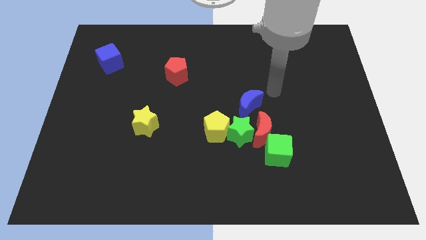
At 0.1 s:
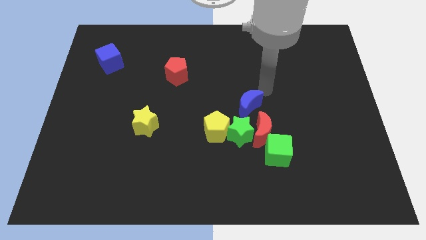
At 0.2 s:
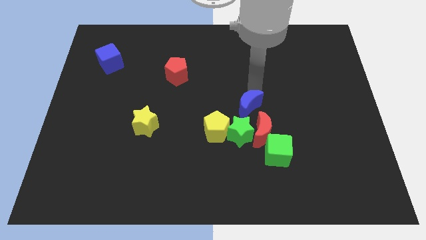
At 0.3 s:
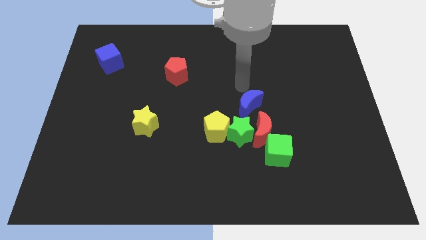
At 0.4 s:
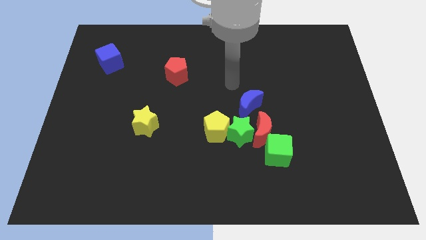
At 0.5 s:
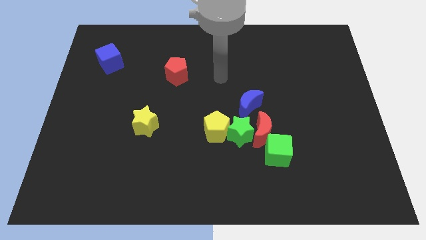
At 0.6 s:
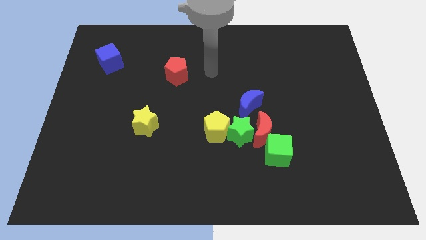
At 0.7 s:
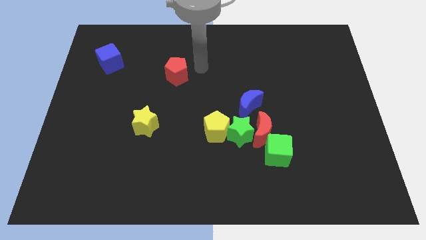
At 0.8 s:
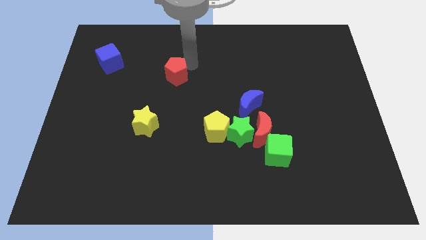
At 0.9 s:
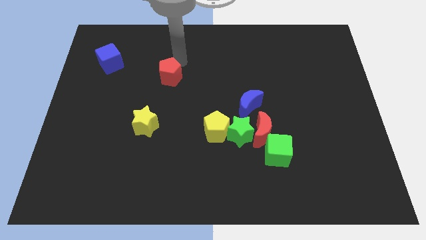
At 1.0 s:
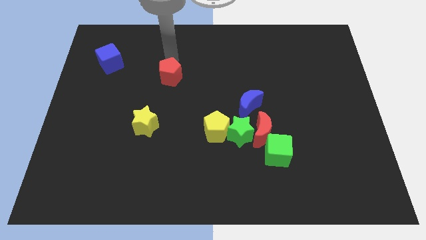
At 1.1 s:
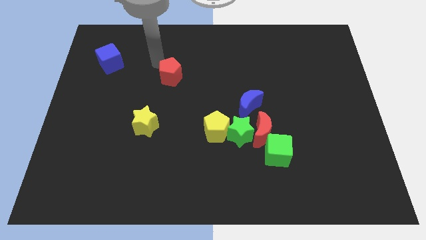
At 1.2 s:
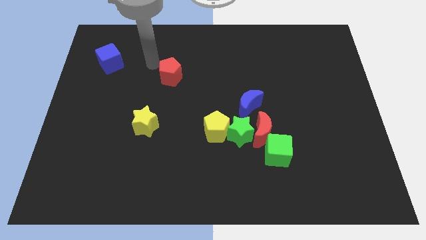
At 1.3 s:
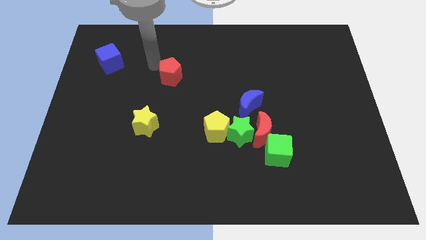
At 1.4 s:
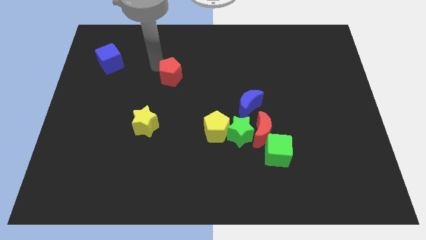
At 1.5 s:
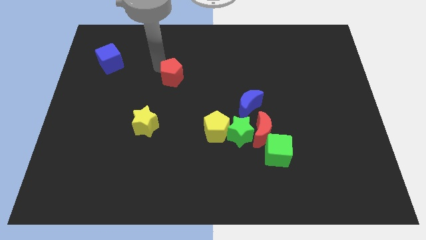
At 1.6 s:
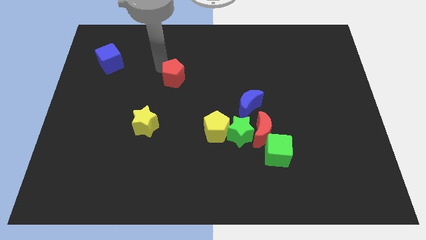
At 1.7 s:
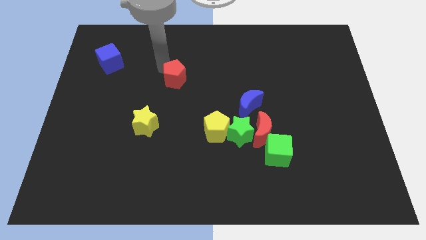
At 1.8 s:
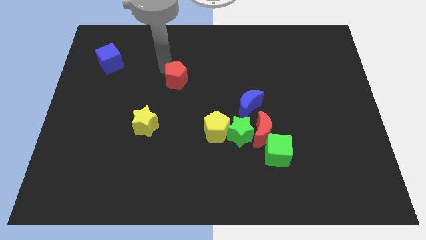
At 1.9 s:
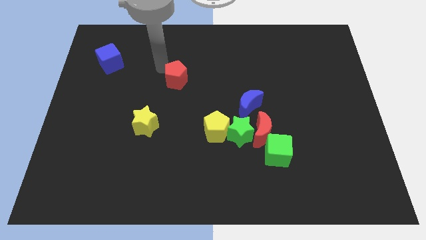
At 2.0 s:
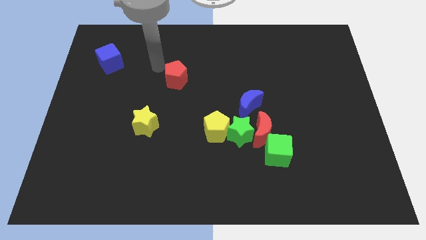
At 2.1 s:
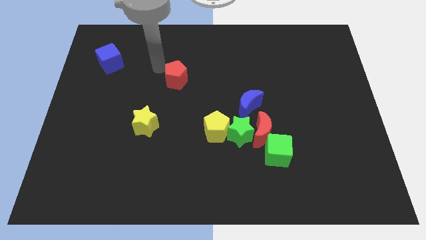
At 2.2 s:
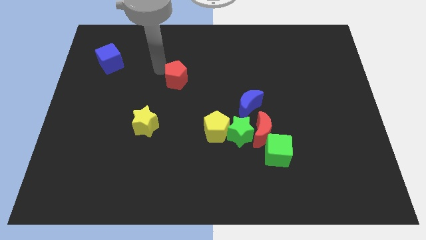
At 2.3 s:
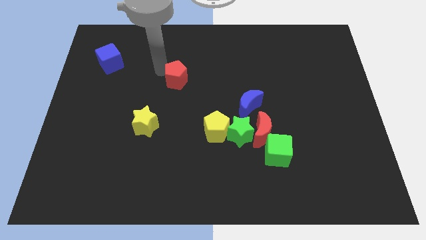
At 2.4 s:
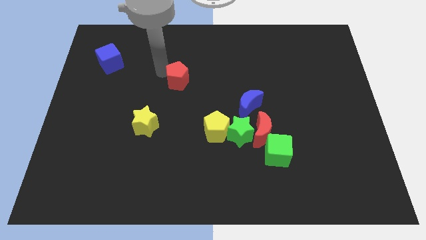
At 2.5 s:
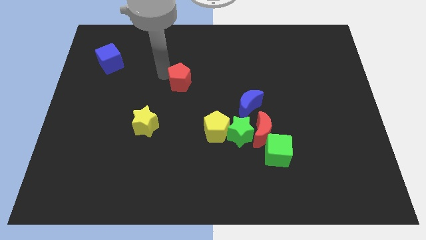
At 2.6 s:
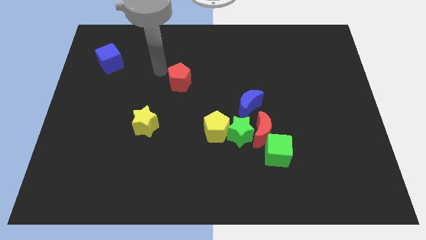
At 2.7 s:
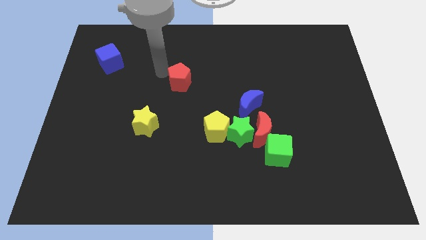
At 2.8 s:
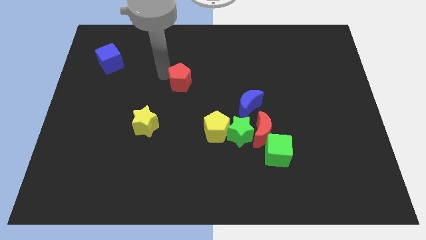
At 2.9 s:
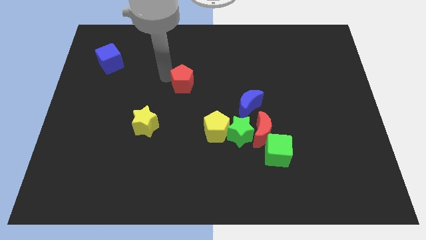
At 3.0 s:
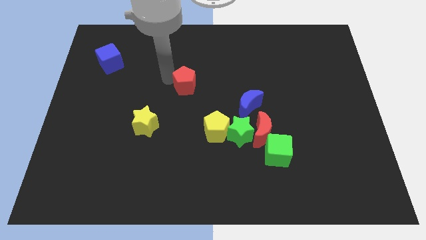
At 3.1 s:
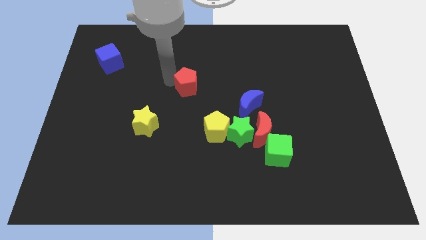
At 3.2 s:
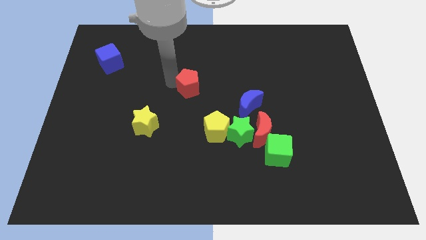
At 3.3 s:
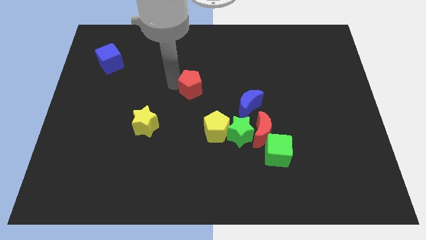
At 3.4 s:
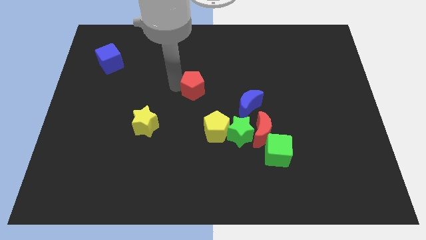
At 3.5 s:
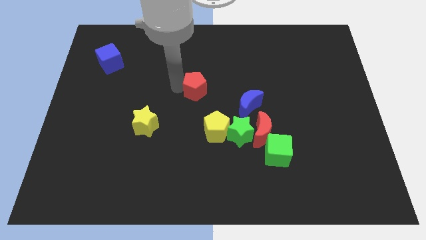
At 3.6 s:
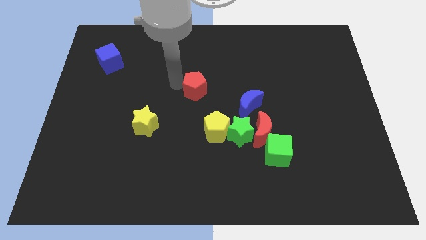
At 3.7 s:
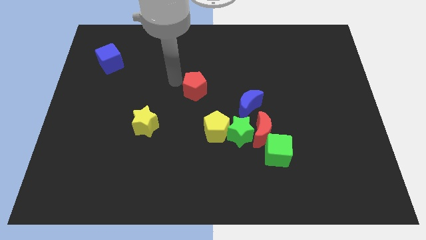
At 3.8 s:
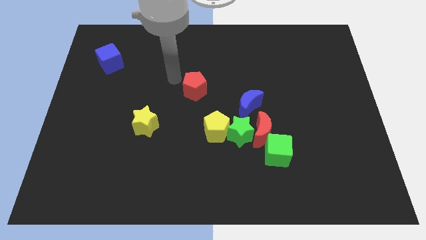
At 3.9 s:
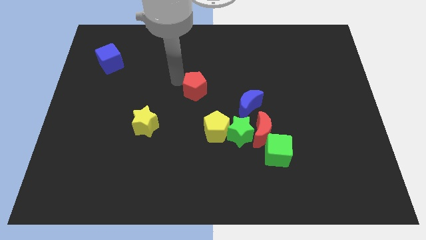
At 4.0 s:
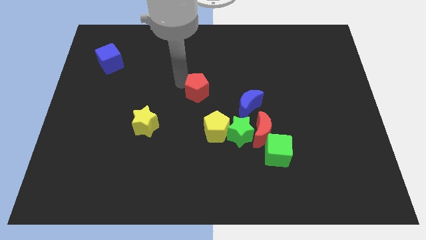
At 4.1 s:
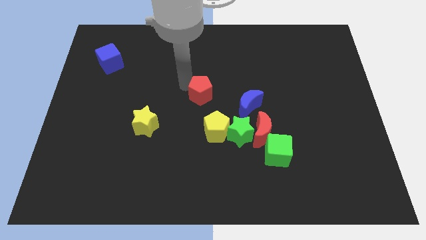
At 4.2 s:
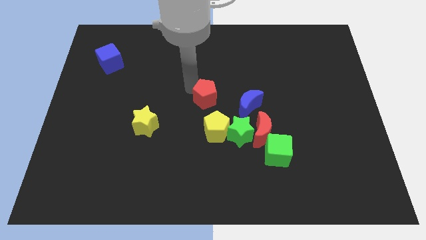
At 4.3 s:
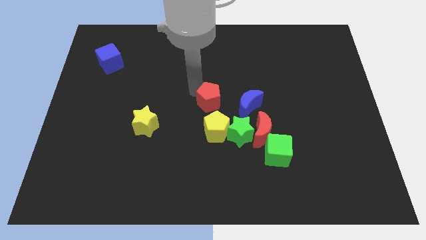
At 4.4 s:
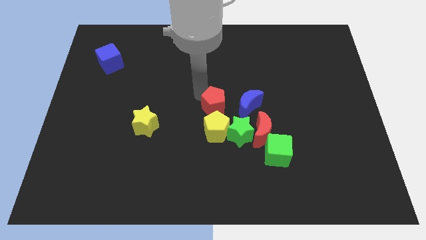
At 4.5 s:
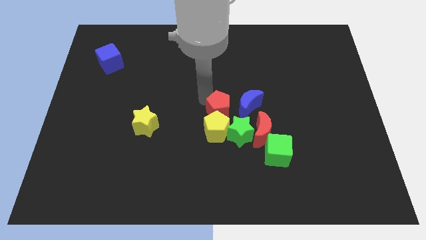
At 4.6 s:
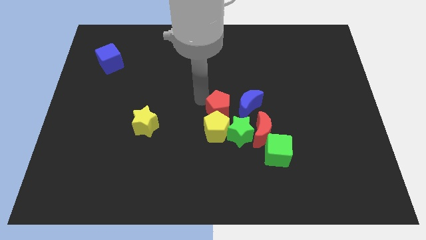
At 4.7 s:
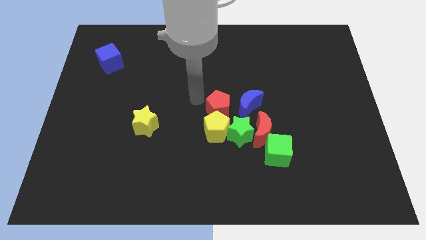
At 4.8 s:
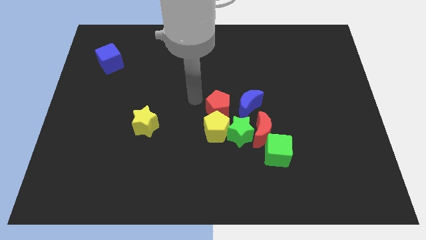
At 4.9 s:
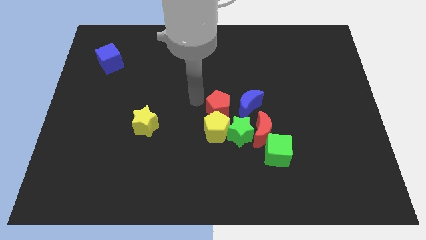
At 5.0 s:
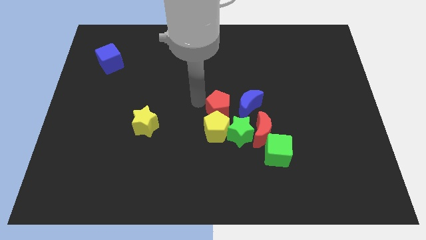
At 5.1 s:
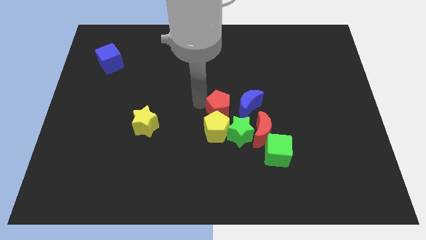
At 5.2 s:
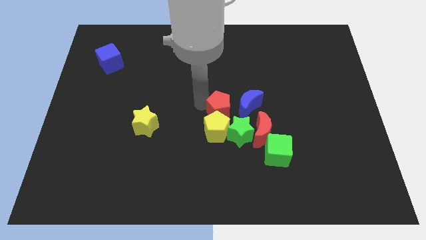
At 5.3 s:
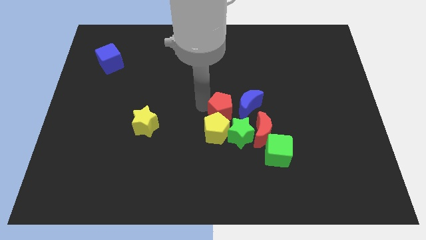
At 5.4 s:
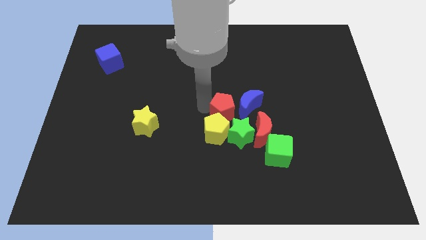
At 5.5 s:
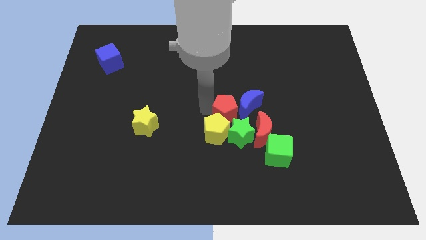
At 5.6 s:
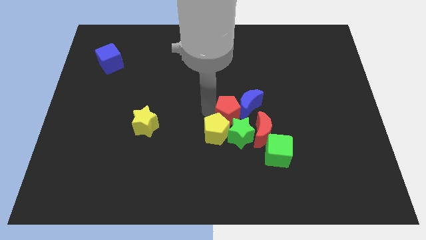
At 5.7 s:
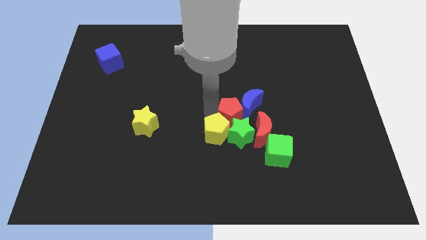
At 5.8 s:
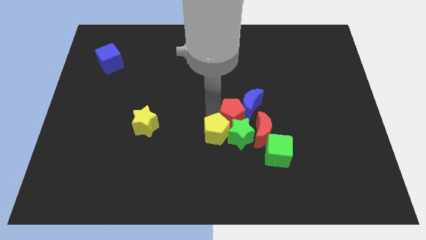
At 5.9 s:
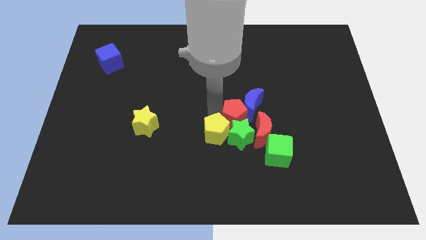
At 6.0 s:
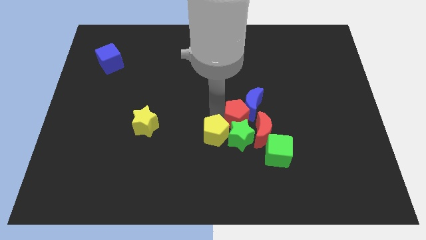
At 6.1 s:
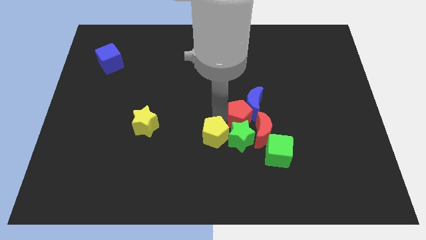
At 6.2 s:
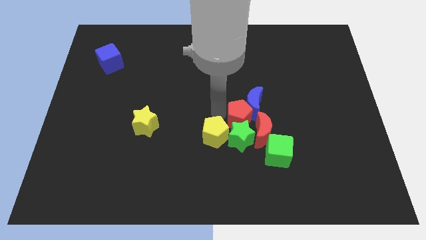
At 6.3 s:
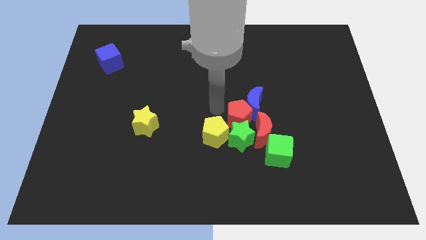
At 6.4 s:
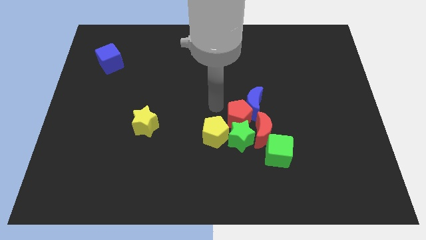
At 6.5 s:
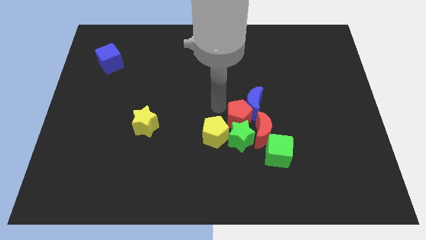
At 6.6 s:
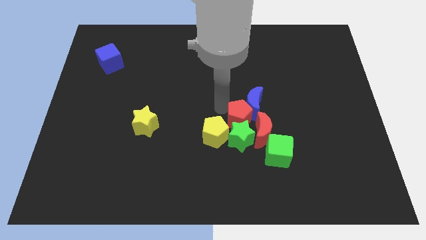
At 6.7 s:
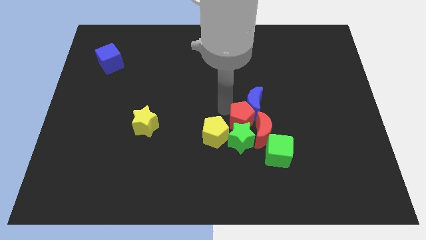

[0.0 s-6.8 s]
push the red pentagon next to the red moon
